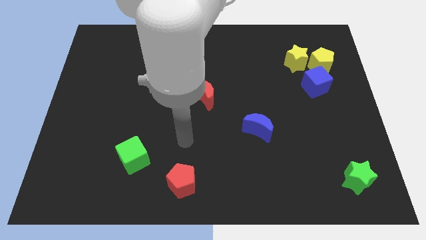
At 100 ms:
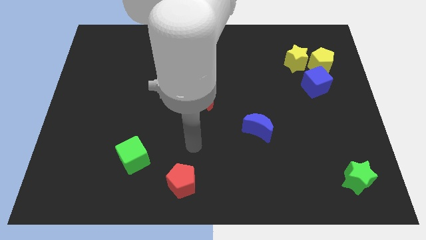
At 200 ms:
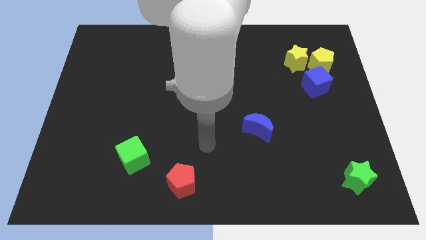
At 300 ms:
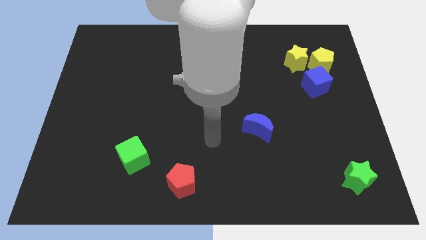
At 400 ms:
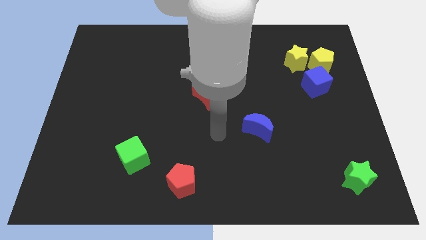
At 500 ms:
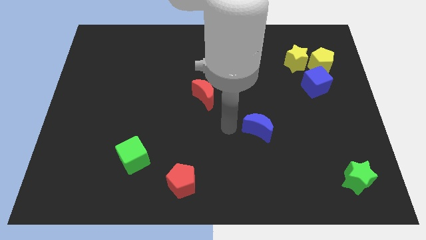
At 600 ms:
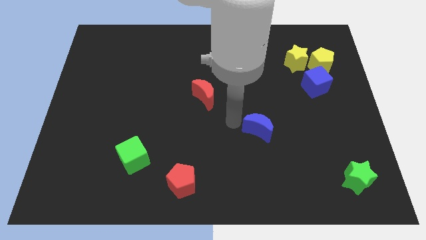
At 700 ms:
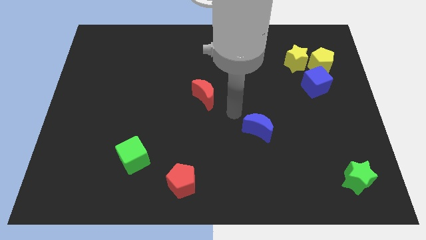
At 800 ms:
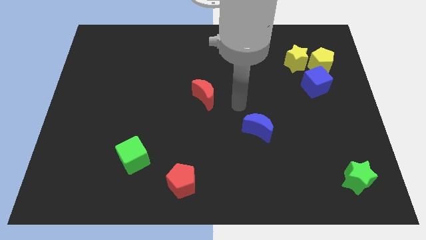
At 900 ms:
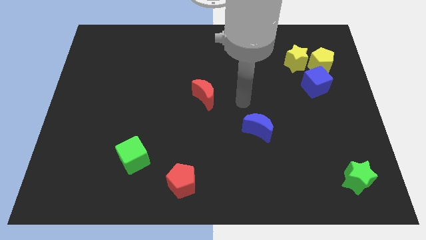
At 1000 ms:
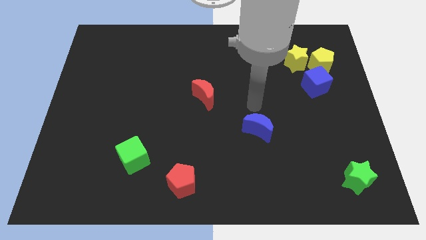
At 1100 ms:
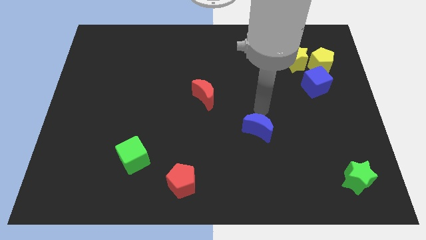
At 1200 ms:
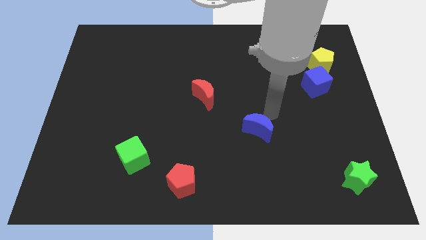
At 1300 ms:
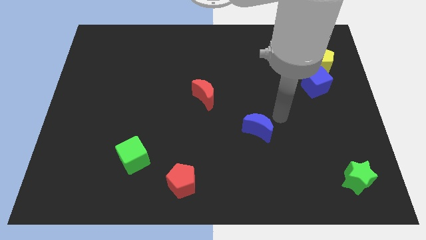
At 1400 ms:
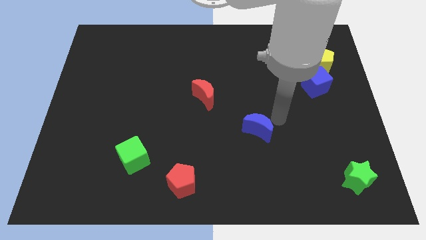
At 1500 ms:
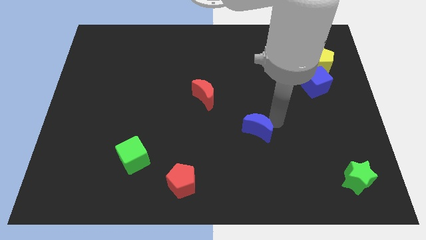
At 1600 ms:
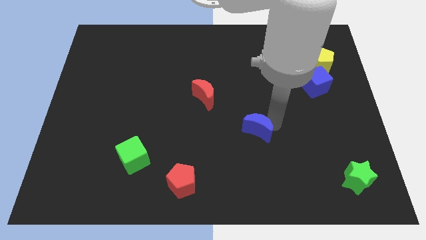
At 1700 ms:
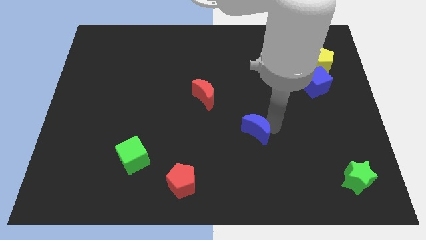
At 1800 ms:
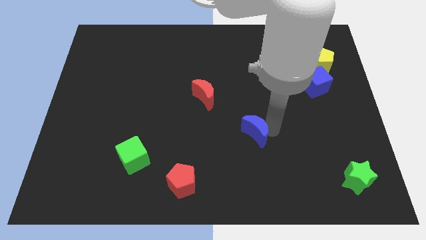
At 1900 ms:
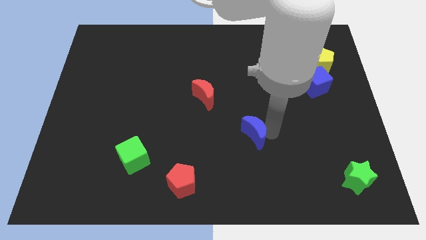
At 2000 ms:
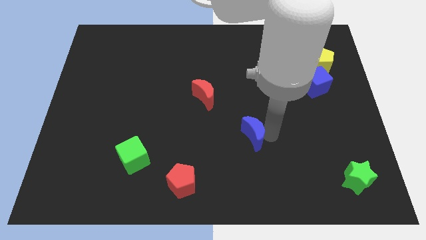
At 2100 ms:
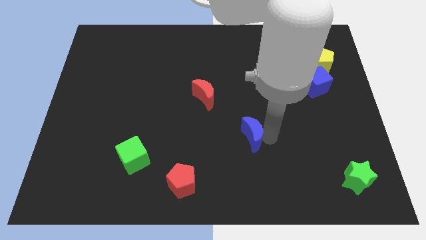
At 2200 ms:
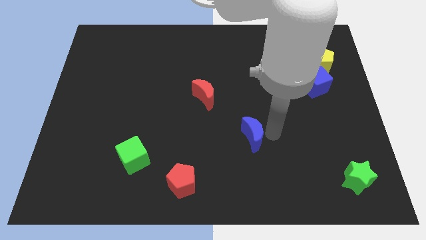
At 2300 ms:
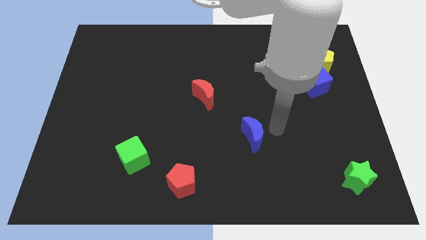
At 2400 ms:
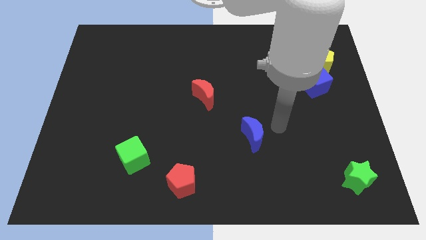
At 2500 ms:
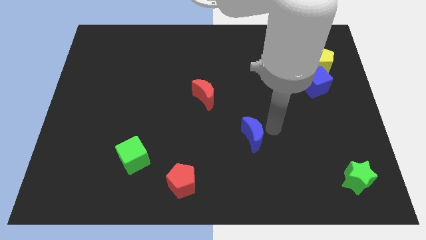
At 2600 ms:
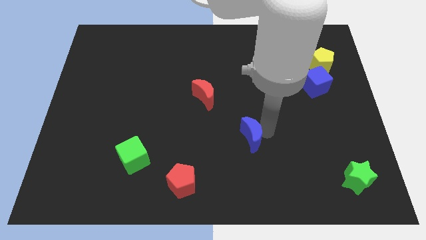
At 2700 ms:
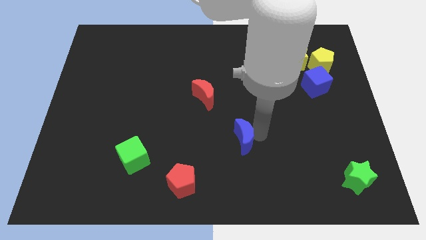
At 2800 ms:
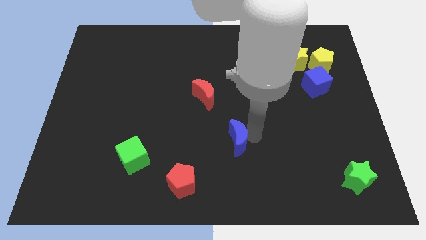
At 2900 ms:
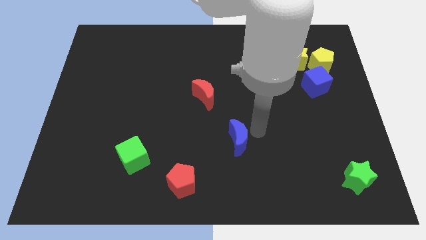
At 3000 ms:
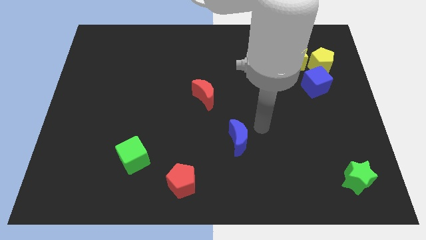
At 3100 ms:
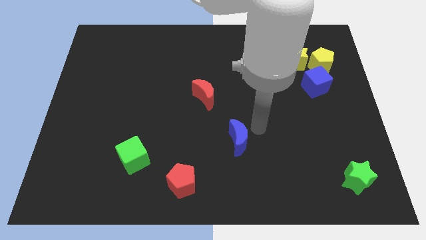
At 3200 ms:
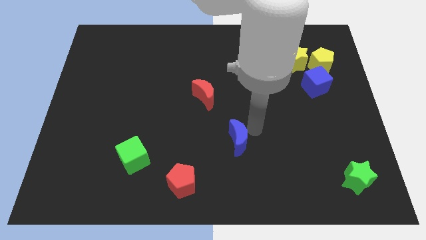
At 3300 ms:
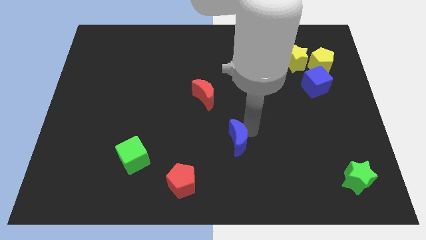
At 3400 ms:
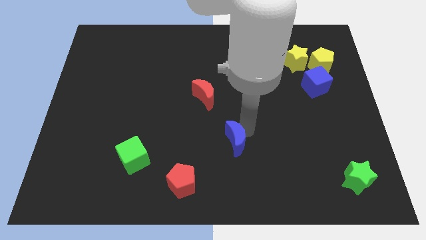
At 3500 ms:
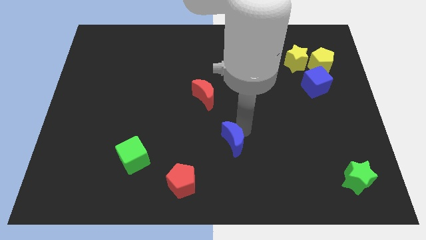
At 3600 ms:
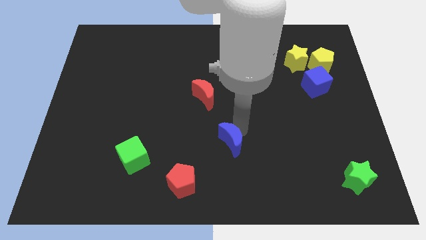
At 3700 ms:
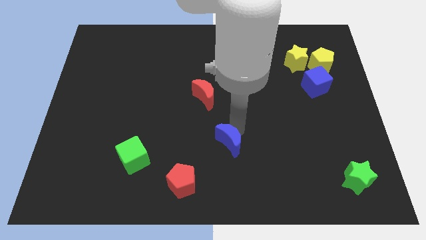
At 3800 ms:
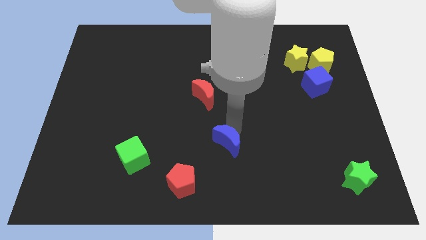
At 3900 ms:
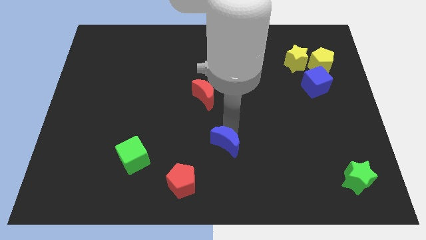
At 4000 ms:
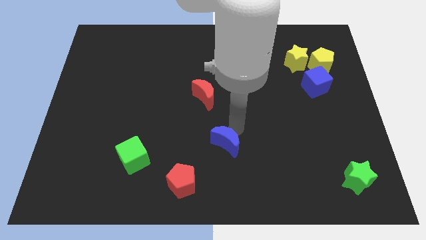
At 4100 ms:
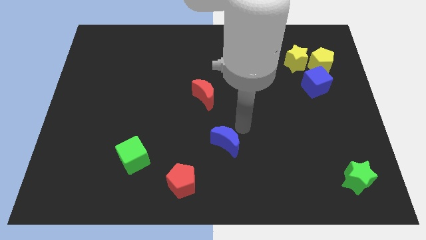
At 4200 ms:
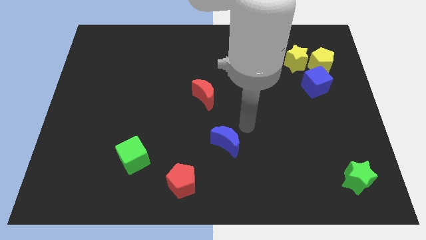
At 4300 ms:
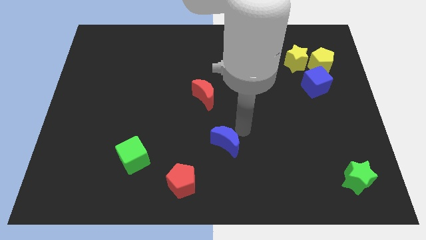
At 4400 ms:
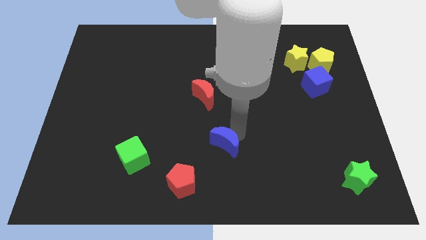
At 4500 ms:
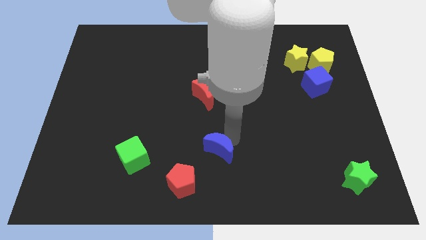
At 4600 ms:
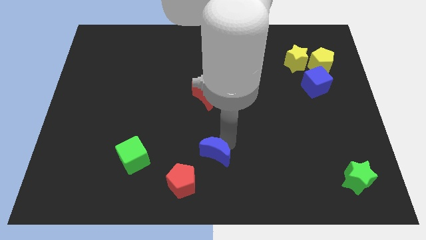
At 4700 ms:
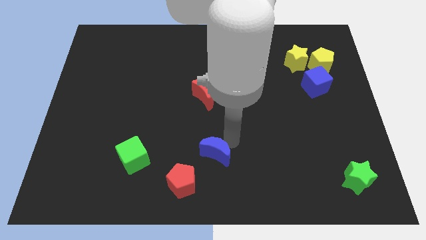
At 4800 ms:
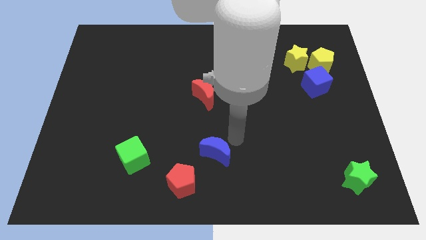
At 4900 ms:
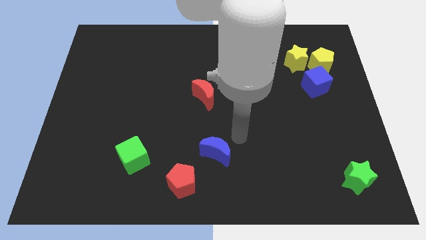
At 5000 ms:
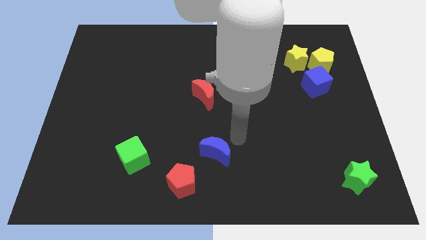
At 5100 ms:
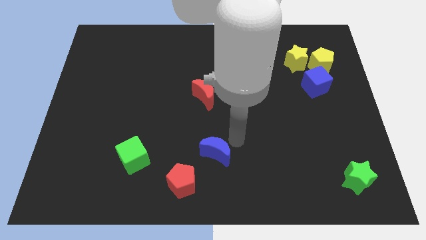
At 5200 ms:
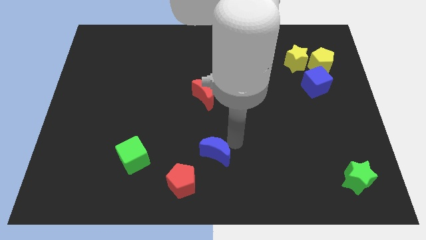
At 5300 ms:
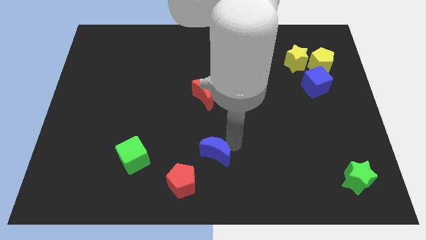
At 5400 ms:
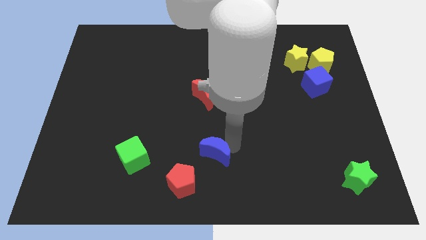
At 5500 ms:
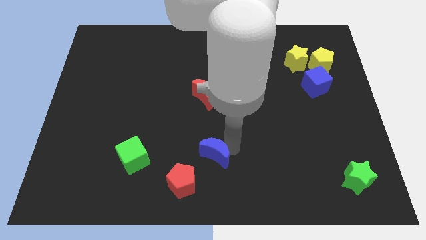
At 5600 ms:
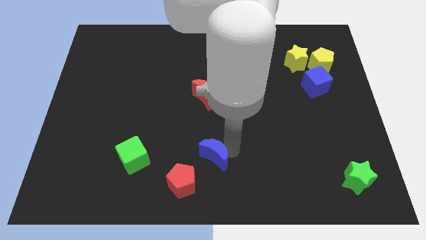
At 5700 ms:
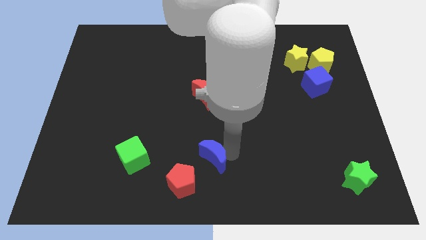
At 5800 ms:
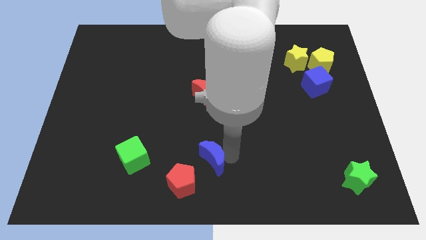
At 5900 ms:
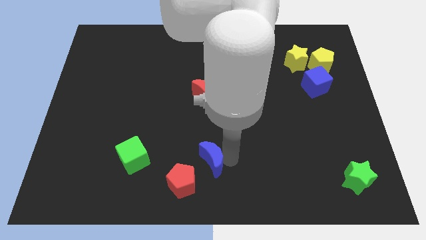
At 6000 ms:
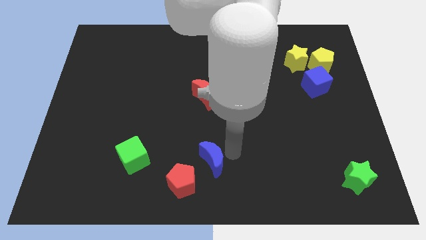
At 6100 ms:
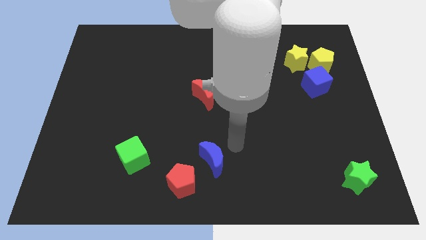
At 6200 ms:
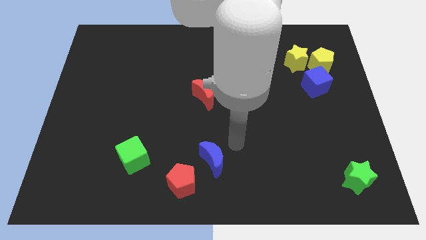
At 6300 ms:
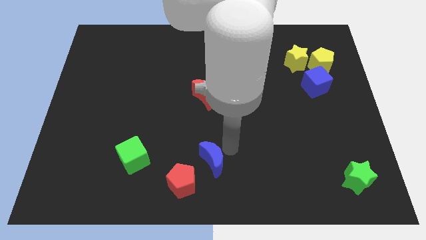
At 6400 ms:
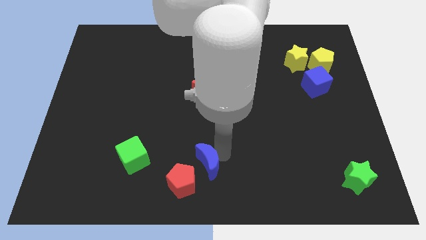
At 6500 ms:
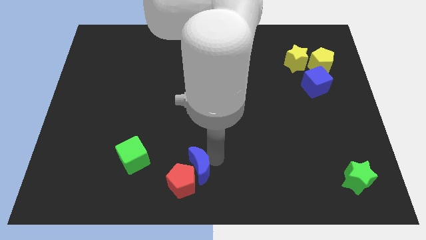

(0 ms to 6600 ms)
push the blue moon towards the red pentagon
